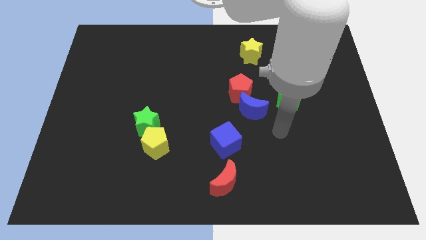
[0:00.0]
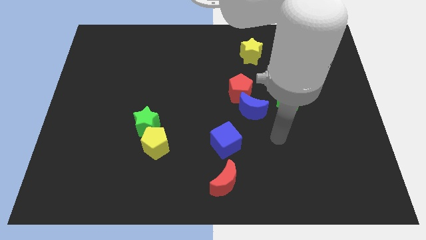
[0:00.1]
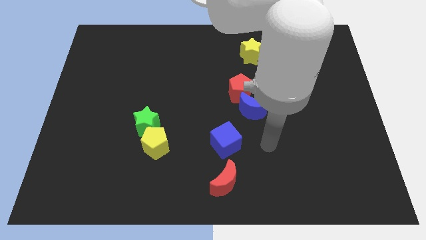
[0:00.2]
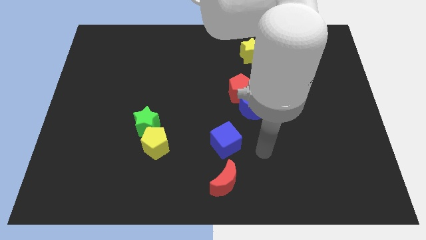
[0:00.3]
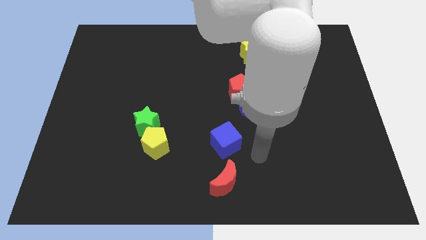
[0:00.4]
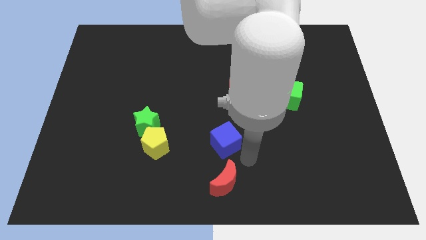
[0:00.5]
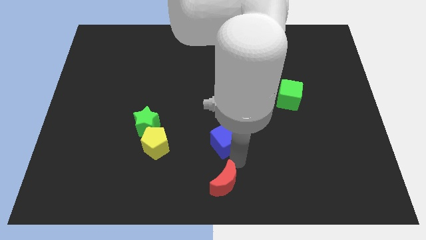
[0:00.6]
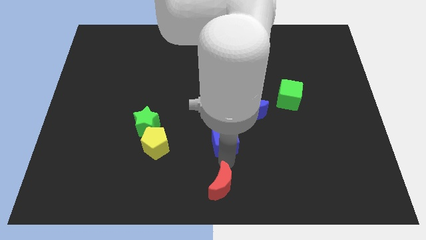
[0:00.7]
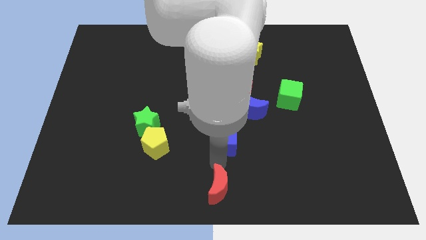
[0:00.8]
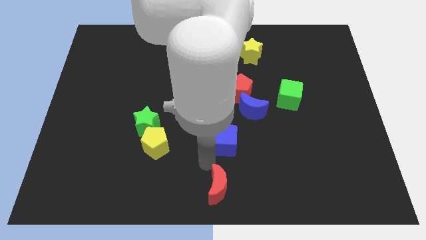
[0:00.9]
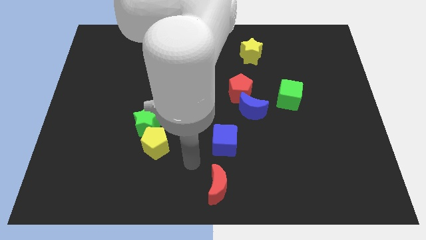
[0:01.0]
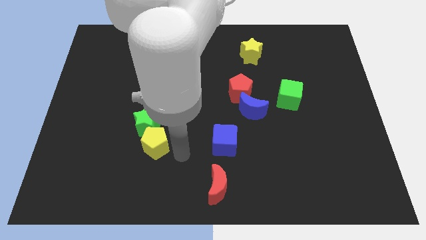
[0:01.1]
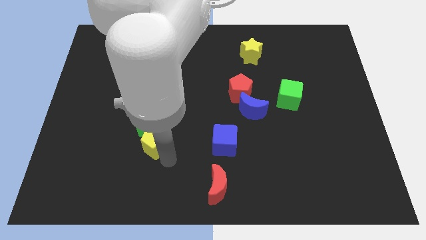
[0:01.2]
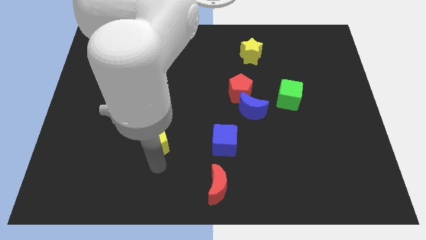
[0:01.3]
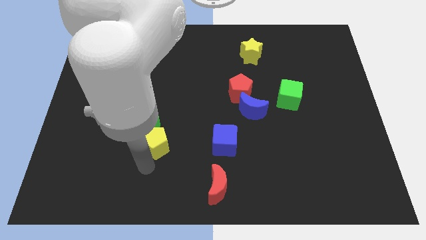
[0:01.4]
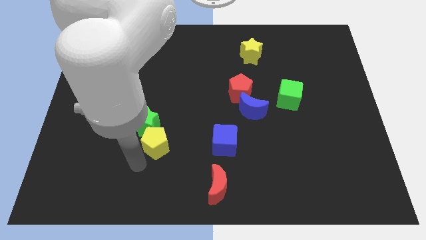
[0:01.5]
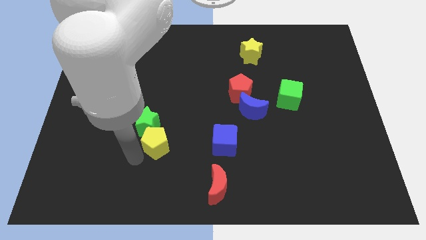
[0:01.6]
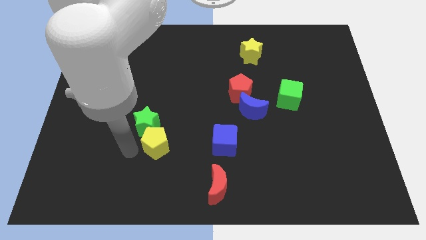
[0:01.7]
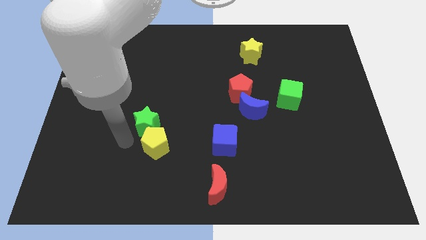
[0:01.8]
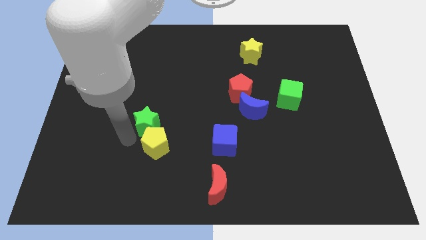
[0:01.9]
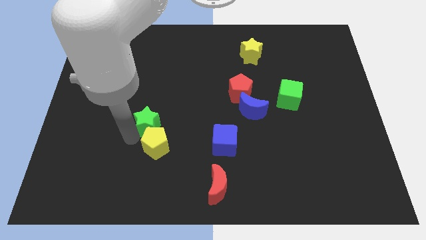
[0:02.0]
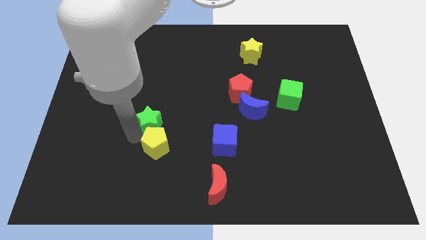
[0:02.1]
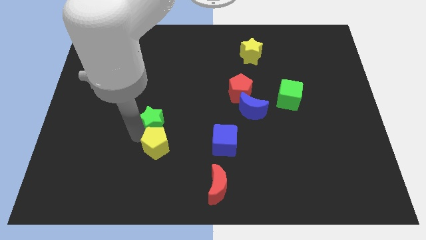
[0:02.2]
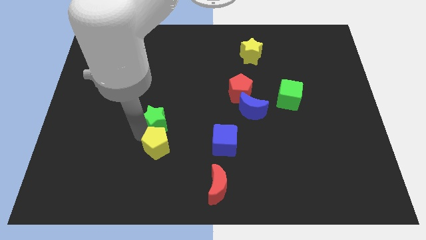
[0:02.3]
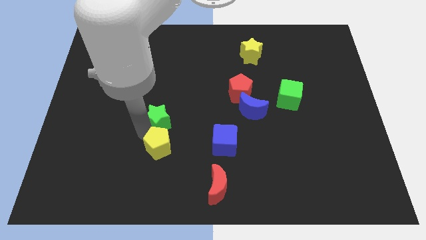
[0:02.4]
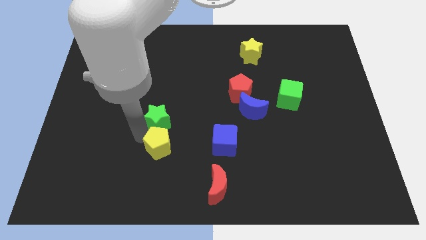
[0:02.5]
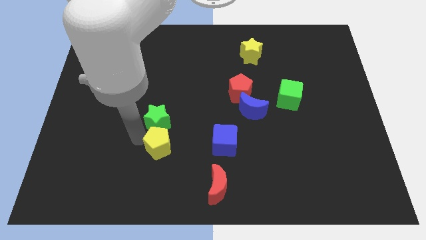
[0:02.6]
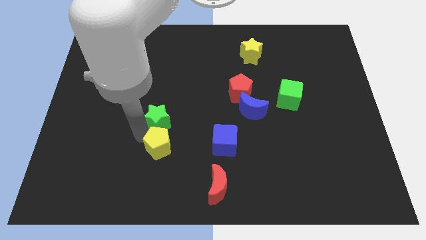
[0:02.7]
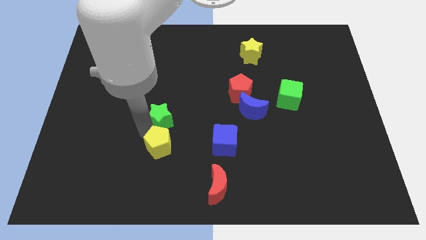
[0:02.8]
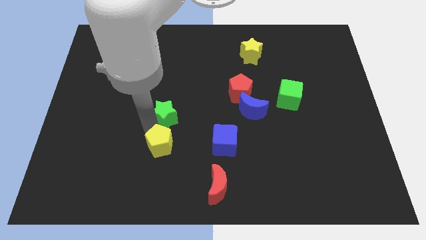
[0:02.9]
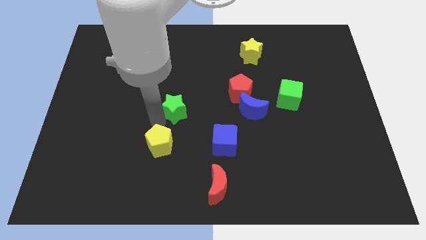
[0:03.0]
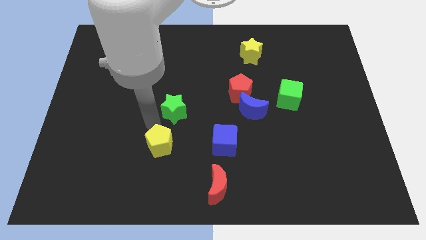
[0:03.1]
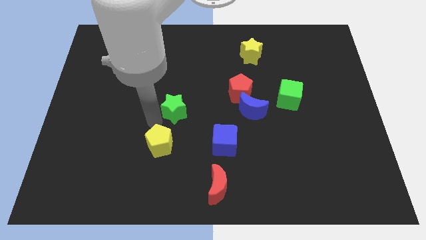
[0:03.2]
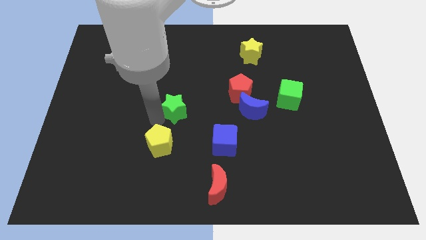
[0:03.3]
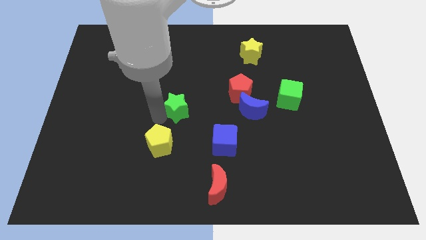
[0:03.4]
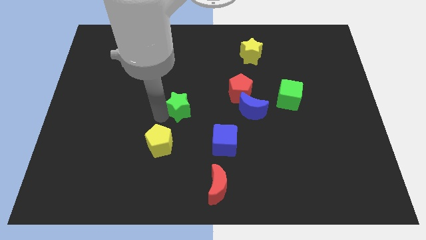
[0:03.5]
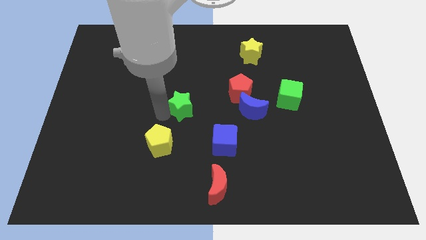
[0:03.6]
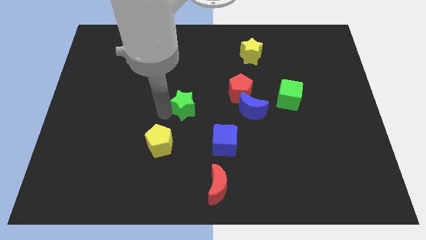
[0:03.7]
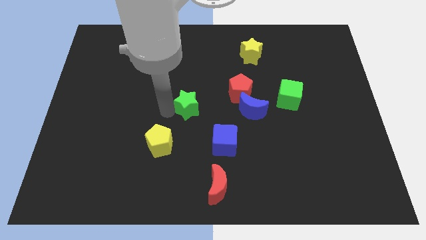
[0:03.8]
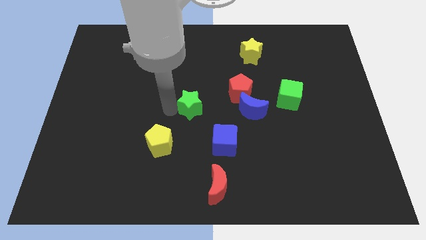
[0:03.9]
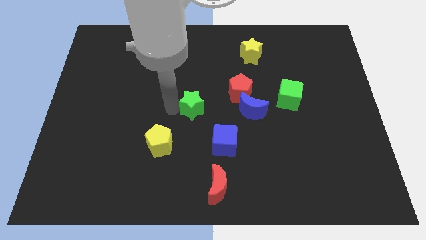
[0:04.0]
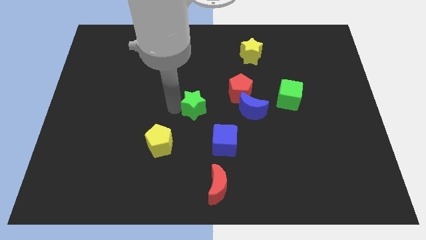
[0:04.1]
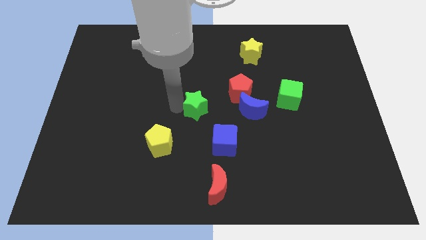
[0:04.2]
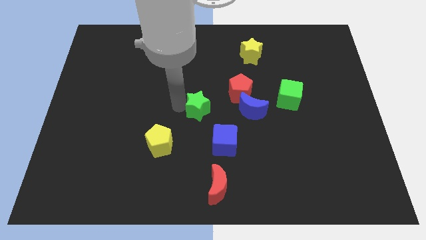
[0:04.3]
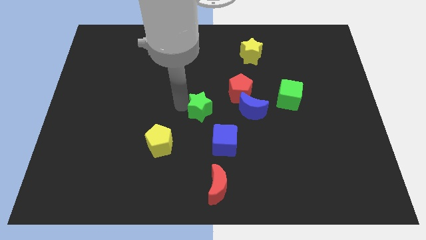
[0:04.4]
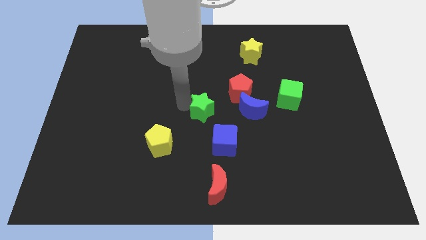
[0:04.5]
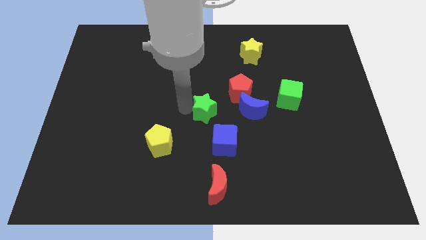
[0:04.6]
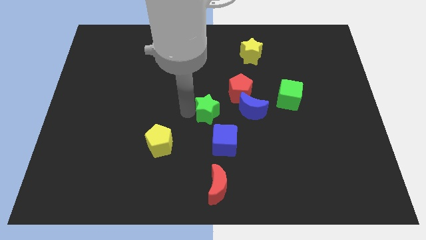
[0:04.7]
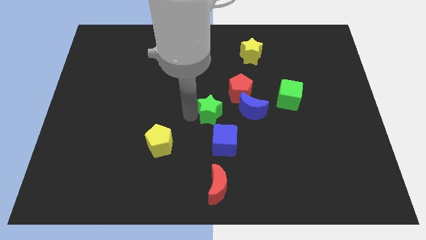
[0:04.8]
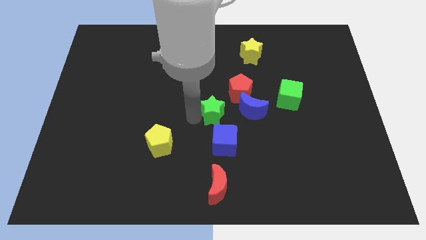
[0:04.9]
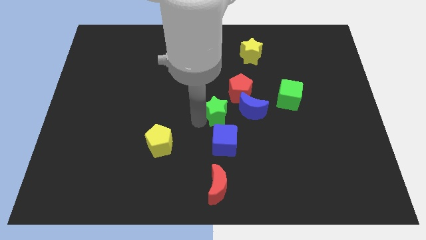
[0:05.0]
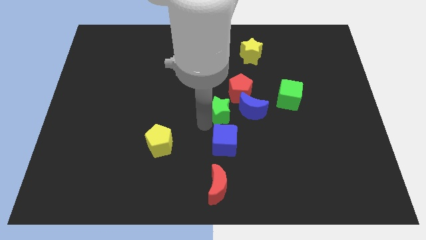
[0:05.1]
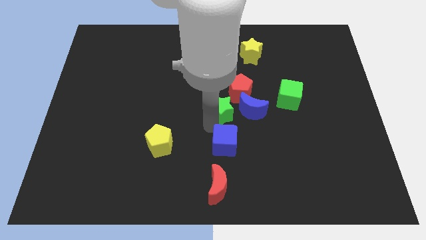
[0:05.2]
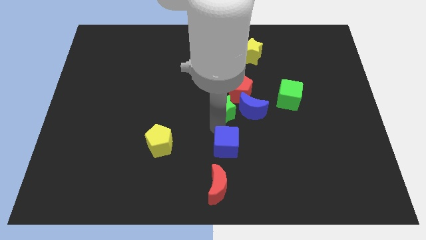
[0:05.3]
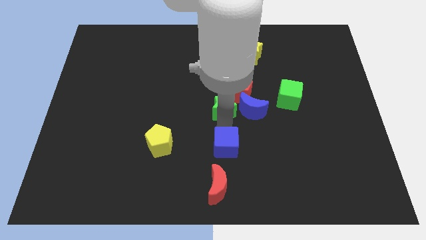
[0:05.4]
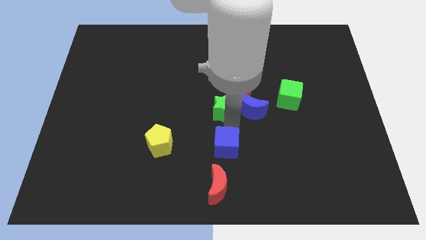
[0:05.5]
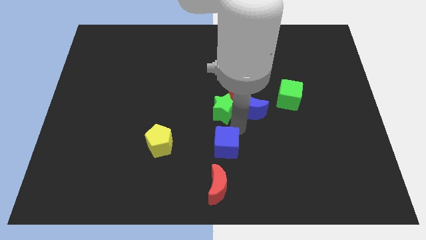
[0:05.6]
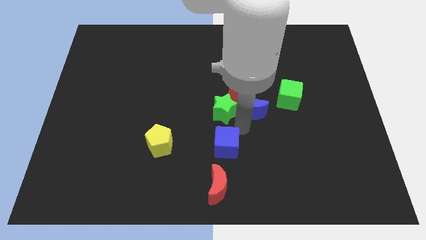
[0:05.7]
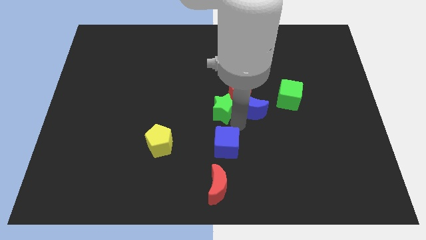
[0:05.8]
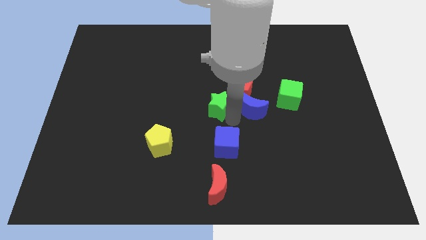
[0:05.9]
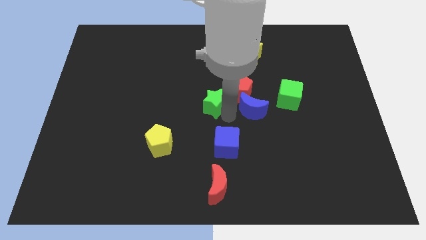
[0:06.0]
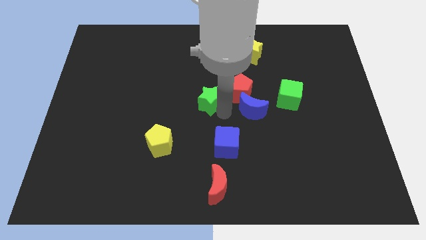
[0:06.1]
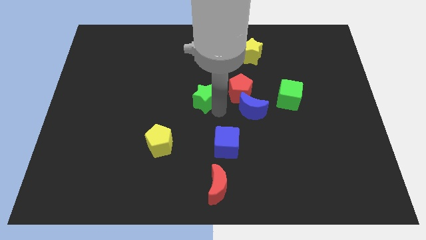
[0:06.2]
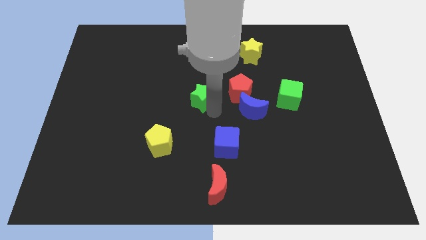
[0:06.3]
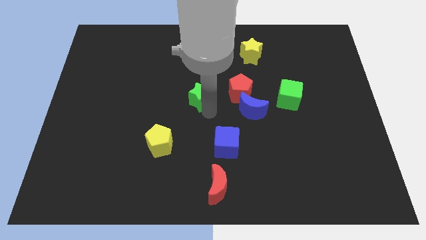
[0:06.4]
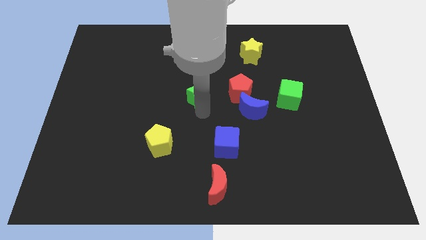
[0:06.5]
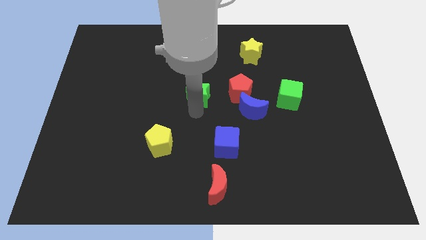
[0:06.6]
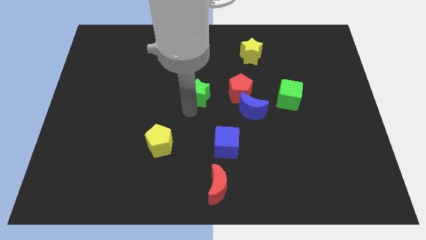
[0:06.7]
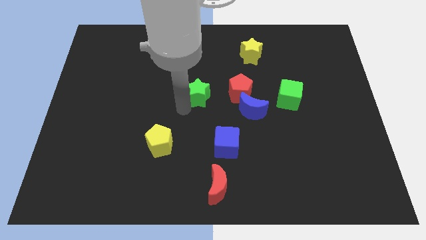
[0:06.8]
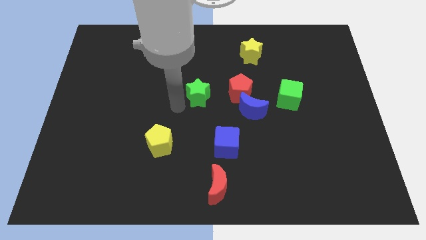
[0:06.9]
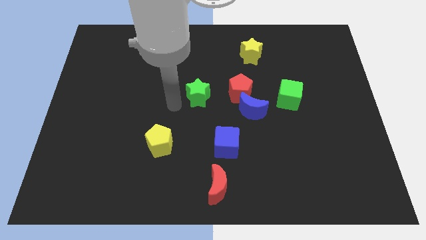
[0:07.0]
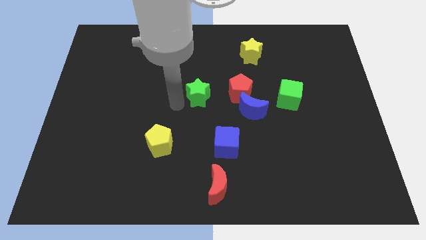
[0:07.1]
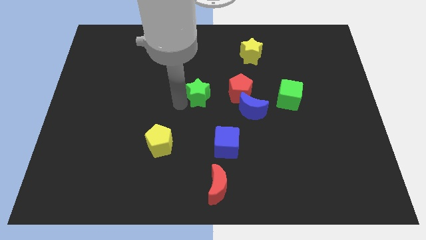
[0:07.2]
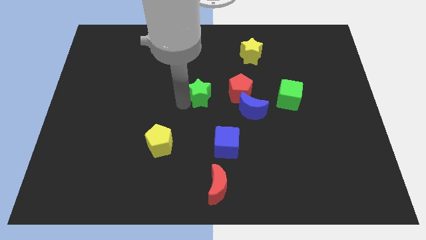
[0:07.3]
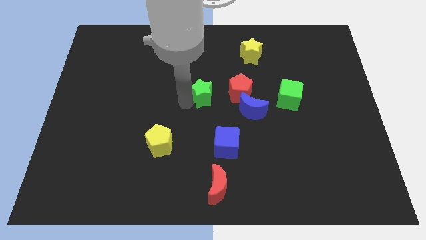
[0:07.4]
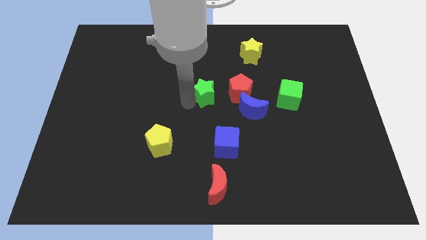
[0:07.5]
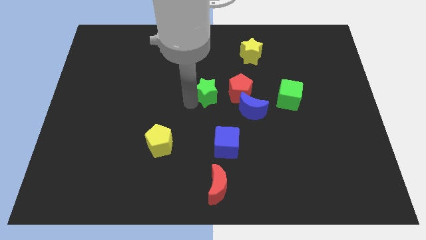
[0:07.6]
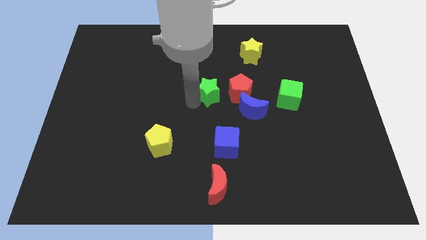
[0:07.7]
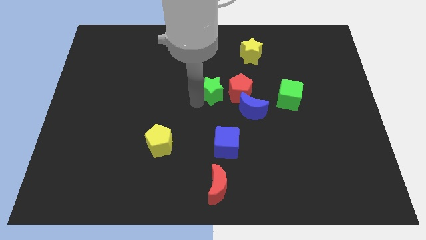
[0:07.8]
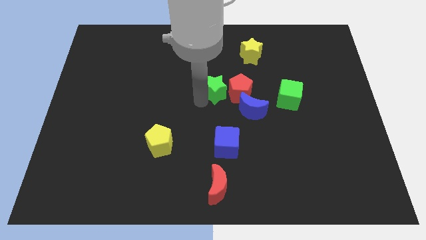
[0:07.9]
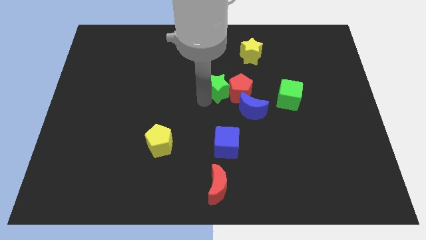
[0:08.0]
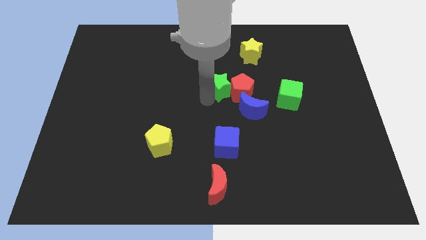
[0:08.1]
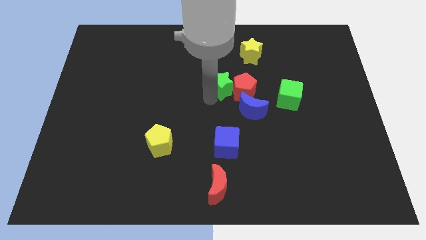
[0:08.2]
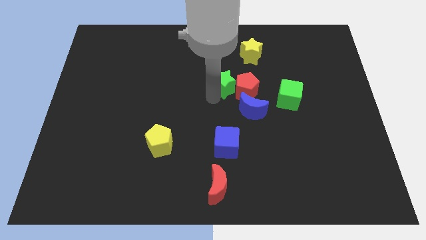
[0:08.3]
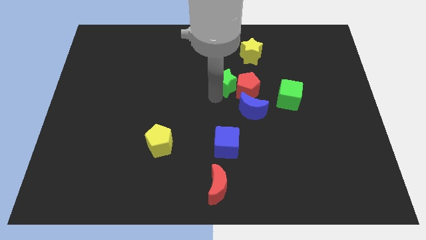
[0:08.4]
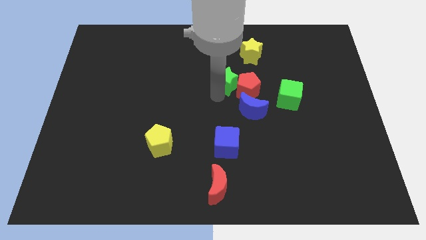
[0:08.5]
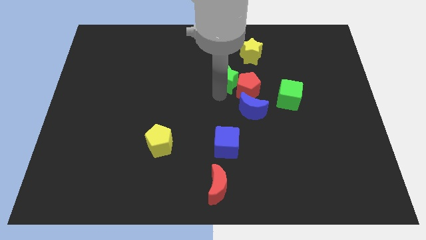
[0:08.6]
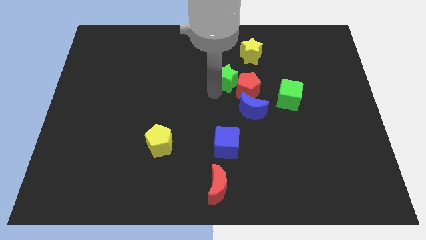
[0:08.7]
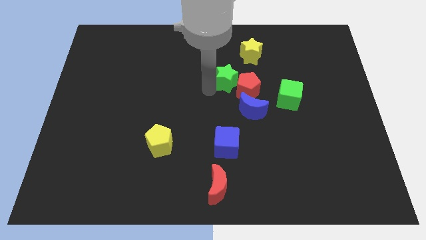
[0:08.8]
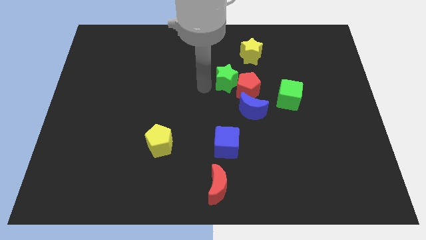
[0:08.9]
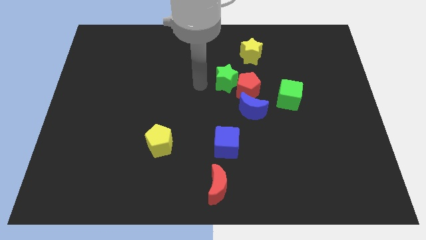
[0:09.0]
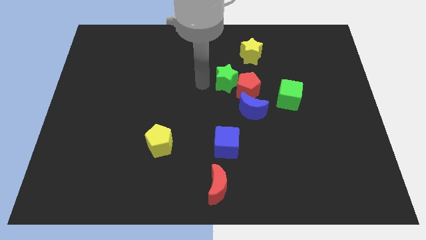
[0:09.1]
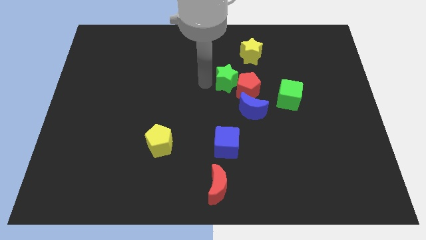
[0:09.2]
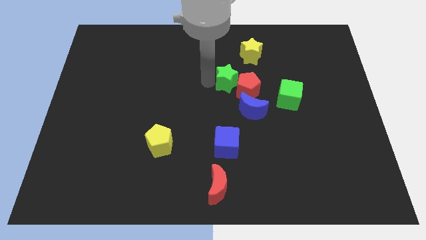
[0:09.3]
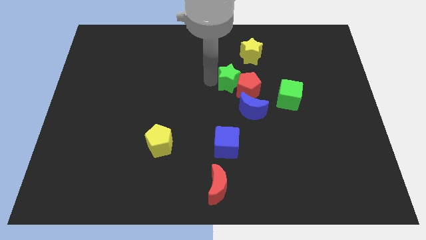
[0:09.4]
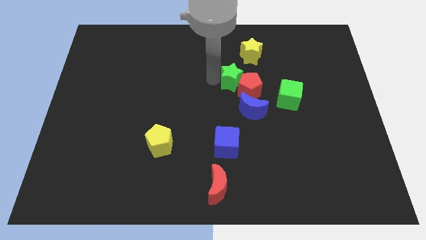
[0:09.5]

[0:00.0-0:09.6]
put the green star to the top side of the blue moon
